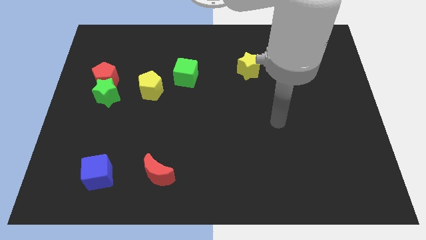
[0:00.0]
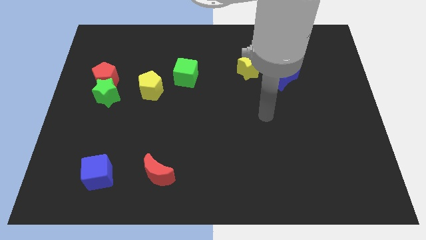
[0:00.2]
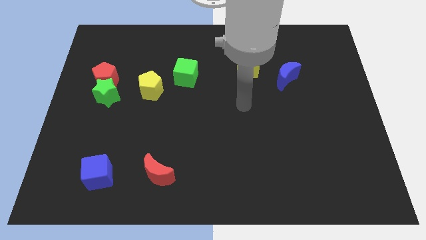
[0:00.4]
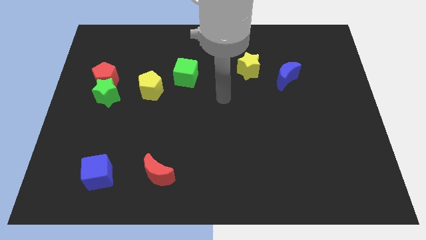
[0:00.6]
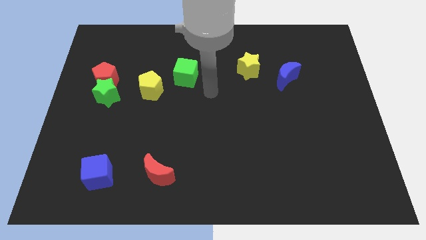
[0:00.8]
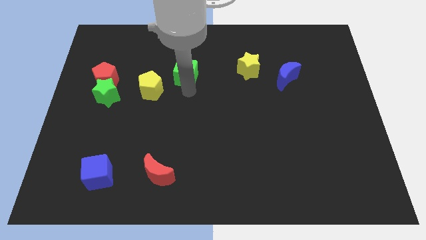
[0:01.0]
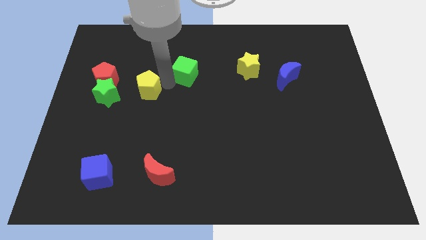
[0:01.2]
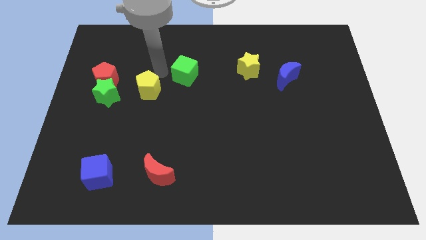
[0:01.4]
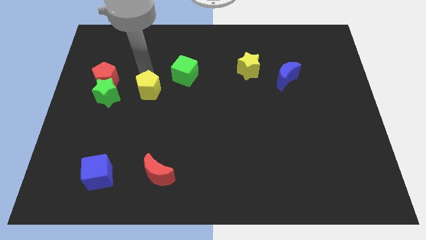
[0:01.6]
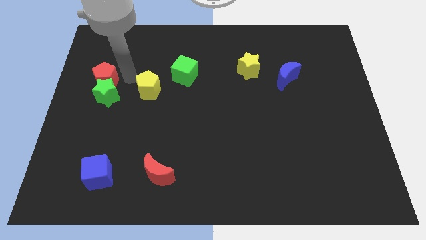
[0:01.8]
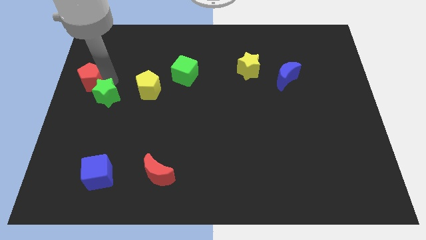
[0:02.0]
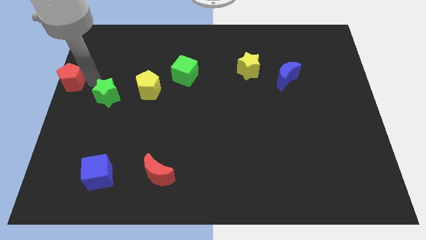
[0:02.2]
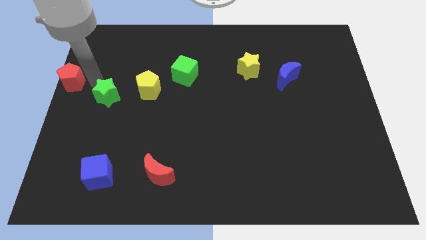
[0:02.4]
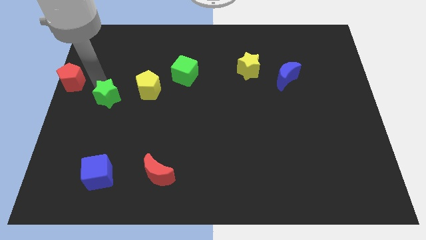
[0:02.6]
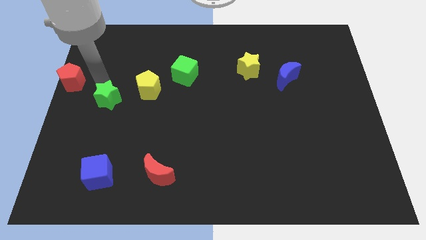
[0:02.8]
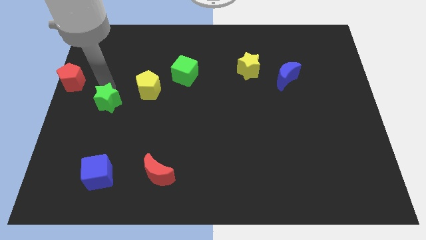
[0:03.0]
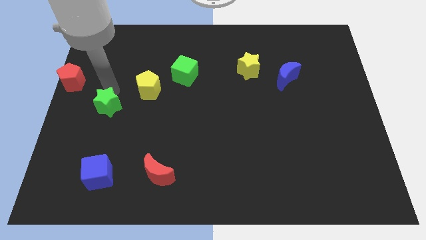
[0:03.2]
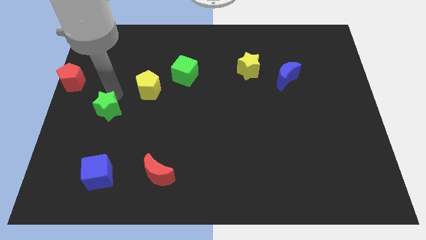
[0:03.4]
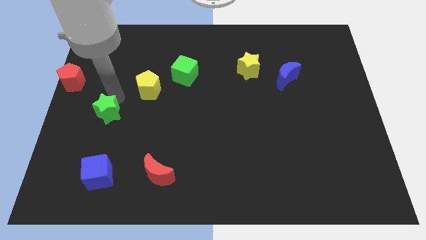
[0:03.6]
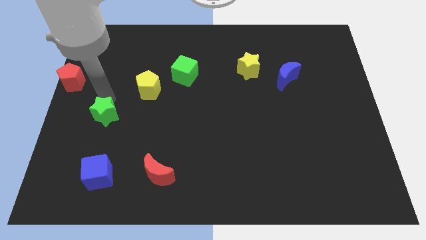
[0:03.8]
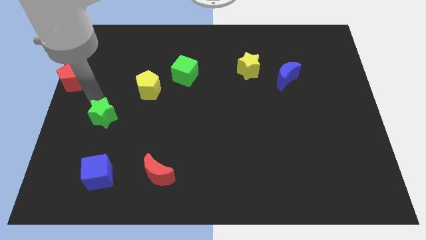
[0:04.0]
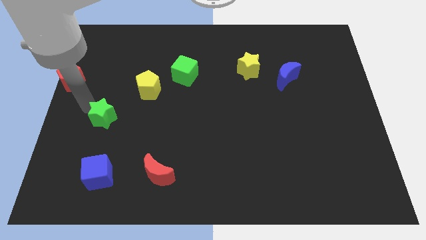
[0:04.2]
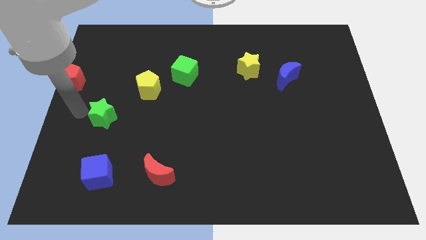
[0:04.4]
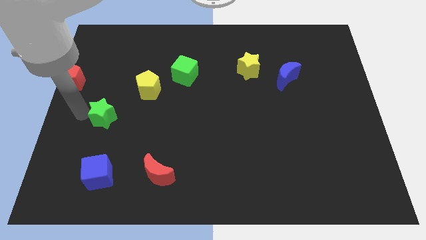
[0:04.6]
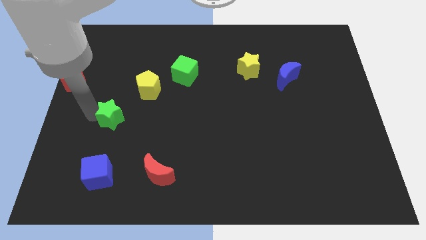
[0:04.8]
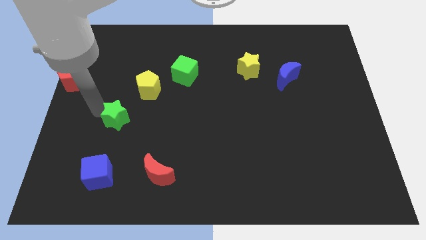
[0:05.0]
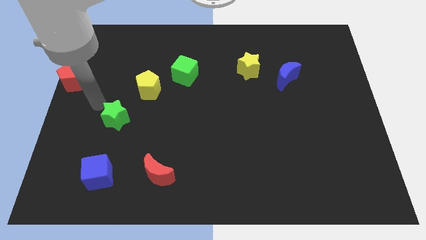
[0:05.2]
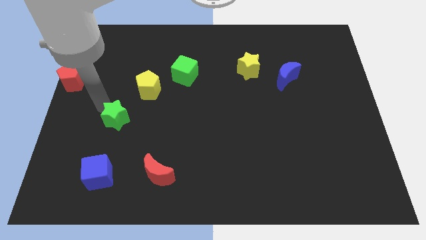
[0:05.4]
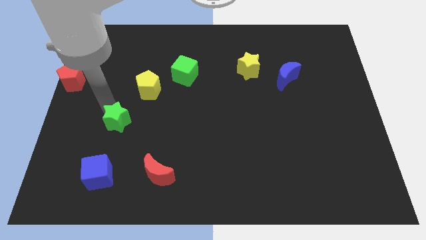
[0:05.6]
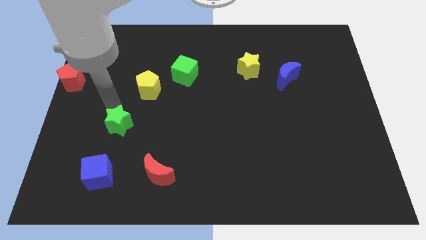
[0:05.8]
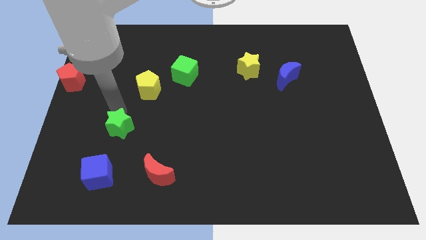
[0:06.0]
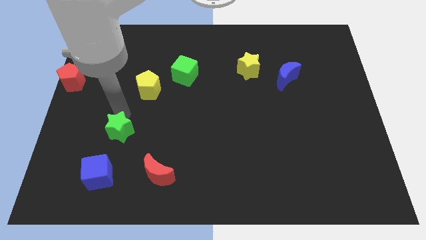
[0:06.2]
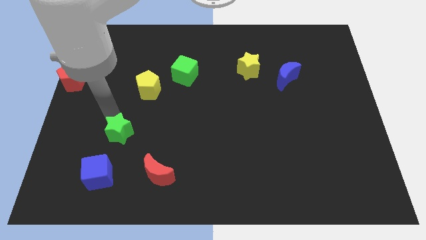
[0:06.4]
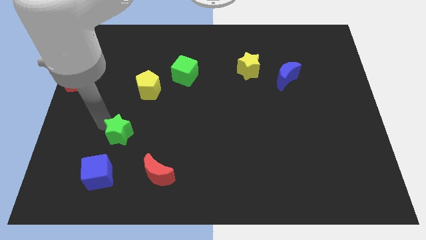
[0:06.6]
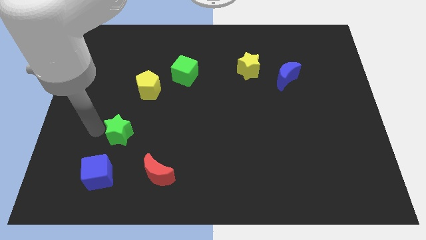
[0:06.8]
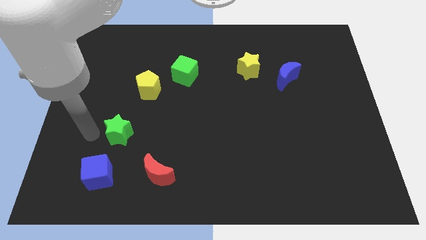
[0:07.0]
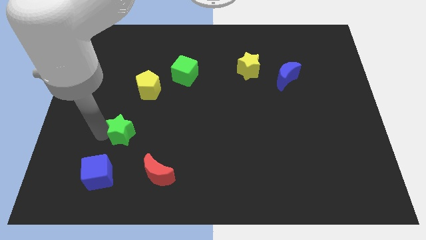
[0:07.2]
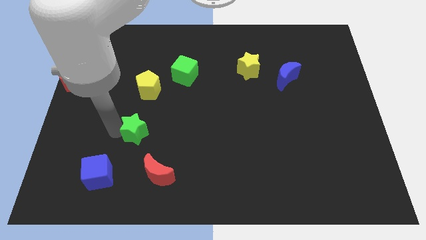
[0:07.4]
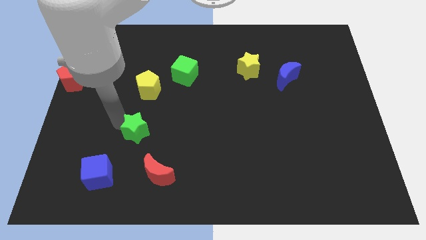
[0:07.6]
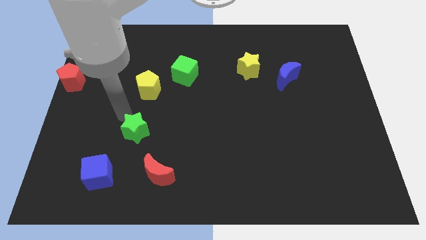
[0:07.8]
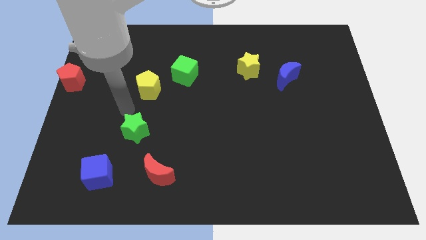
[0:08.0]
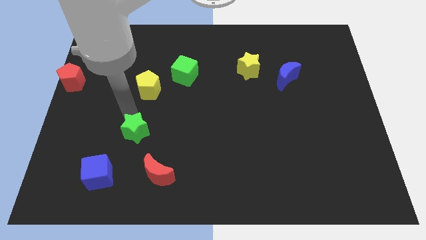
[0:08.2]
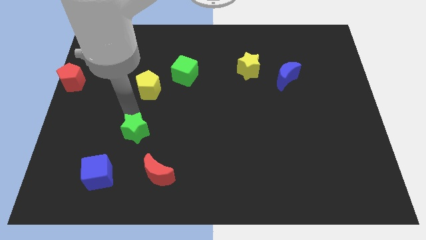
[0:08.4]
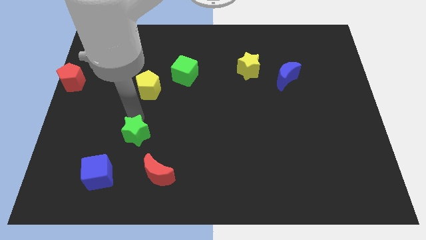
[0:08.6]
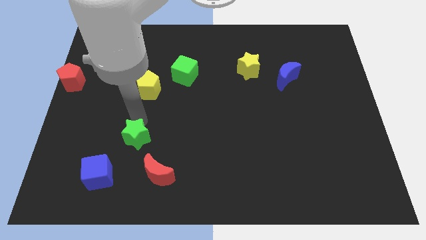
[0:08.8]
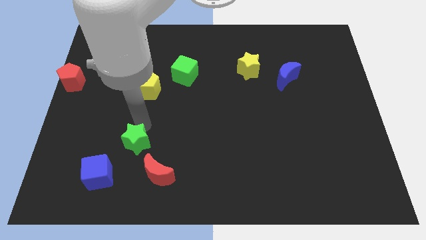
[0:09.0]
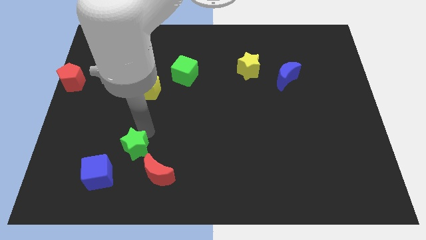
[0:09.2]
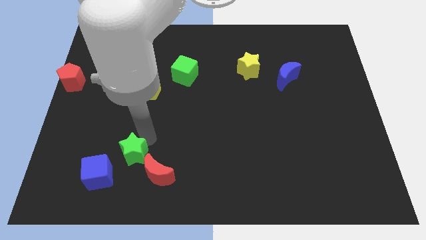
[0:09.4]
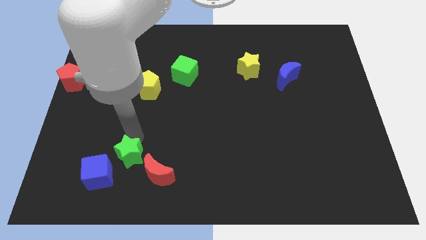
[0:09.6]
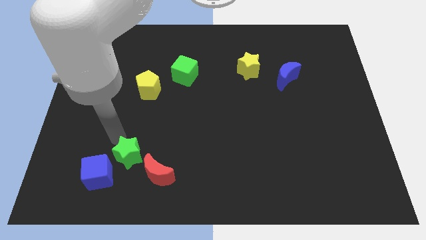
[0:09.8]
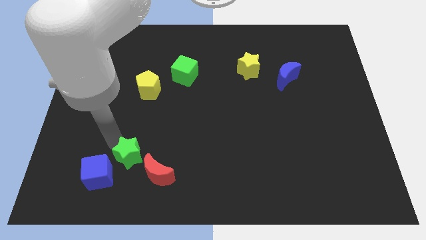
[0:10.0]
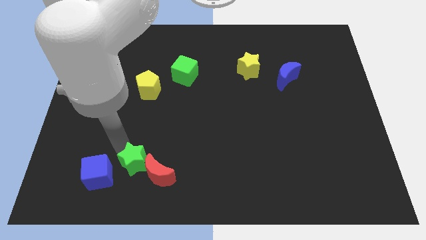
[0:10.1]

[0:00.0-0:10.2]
push the green star towards the red moon

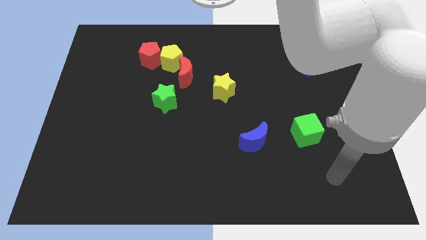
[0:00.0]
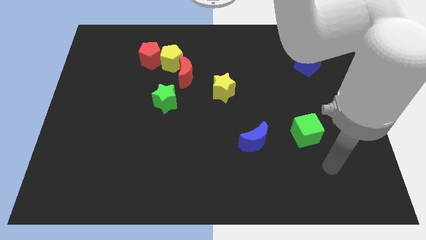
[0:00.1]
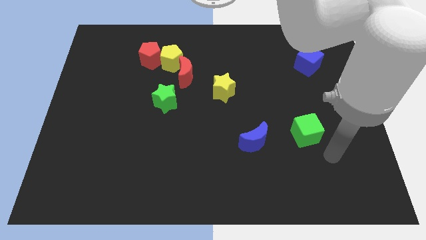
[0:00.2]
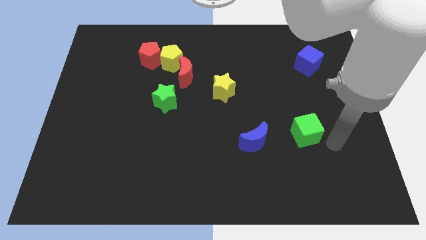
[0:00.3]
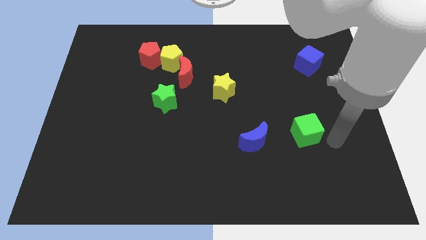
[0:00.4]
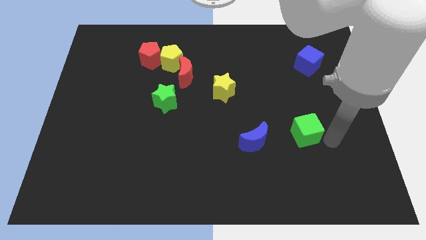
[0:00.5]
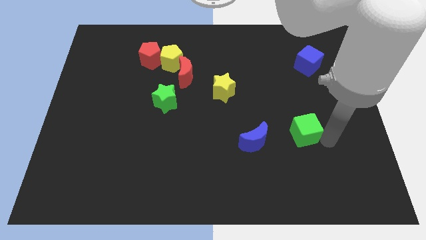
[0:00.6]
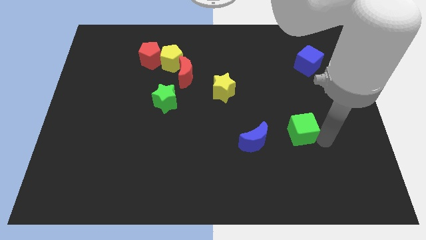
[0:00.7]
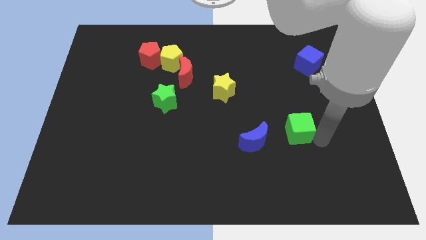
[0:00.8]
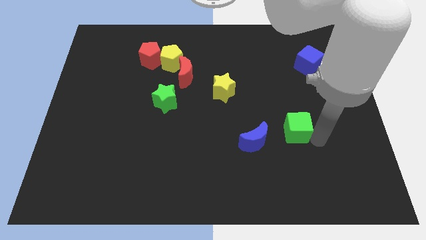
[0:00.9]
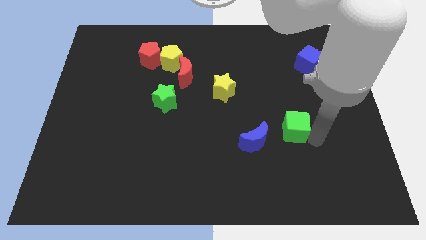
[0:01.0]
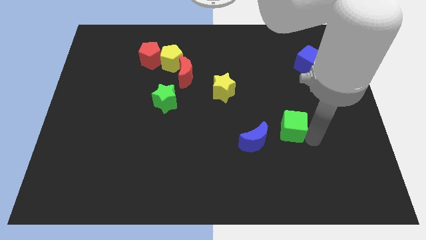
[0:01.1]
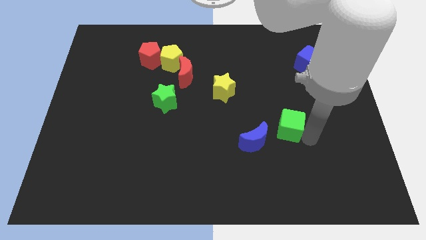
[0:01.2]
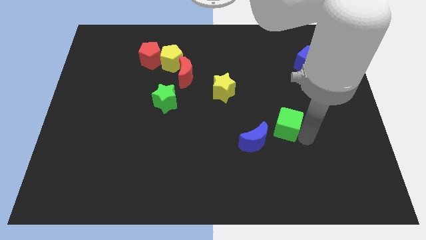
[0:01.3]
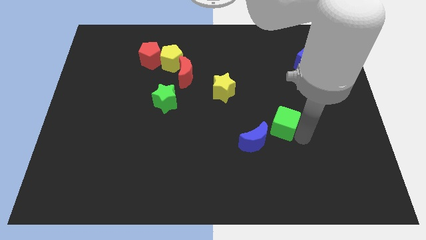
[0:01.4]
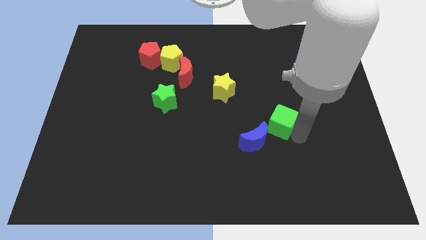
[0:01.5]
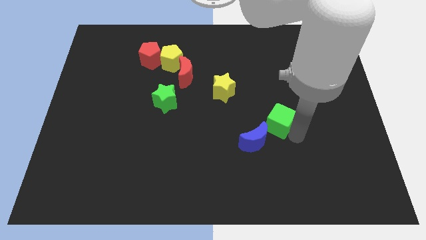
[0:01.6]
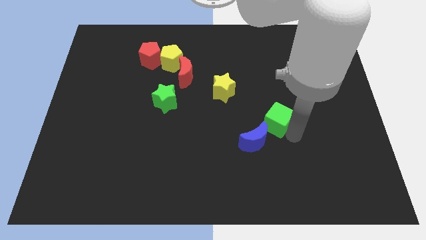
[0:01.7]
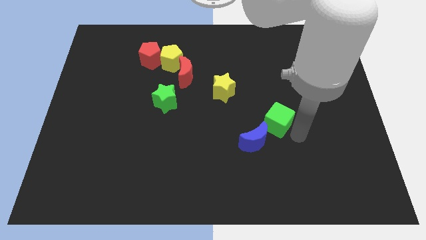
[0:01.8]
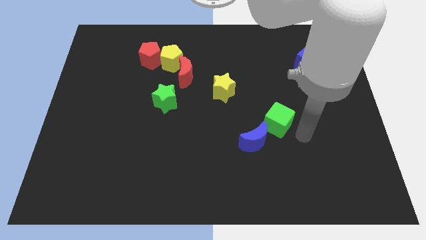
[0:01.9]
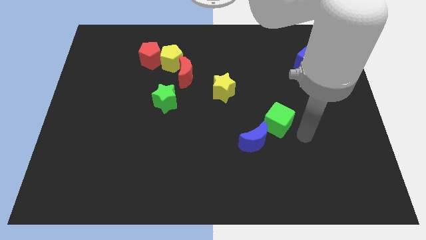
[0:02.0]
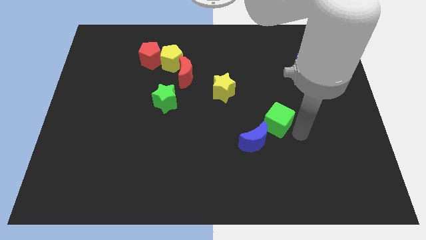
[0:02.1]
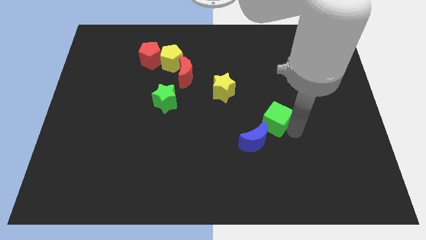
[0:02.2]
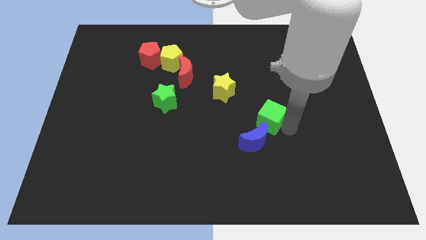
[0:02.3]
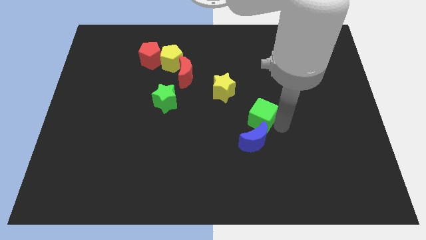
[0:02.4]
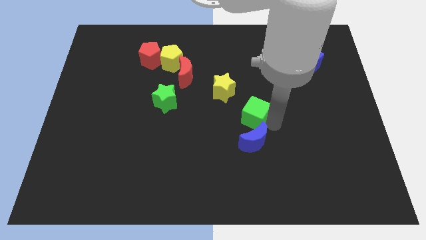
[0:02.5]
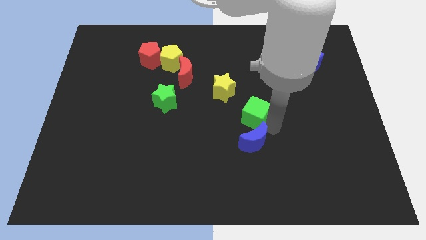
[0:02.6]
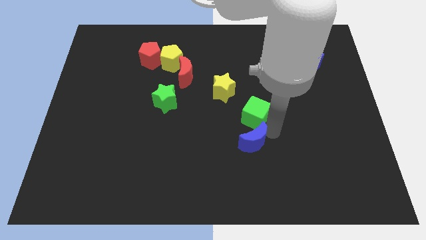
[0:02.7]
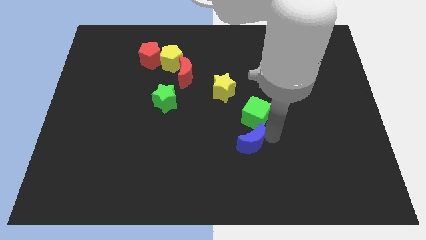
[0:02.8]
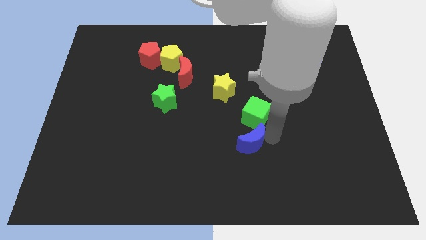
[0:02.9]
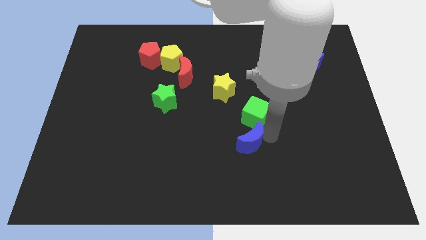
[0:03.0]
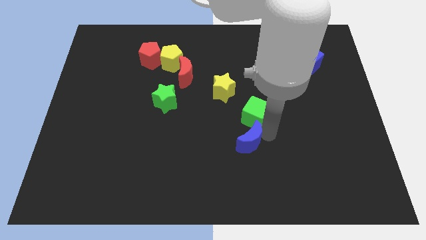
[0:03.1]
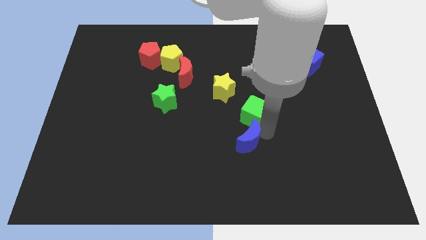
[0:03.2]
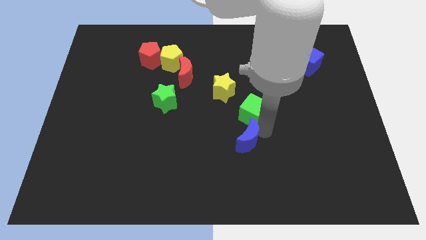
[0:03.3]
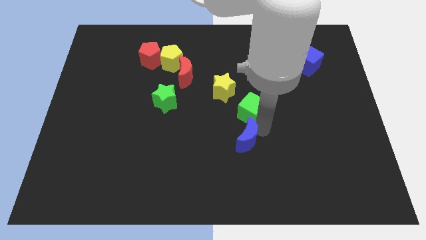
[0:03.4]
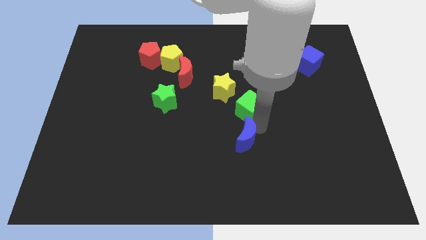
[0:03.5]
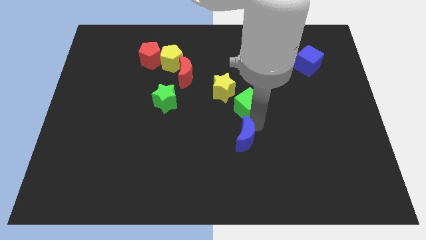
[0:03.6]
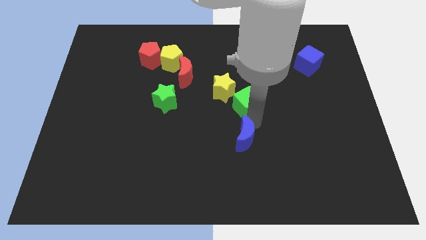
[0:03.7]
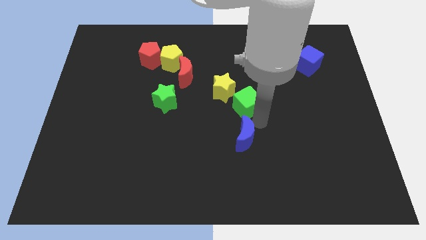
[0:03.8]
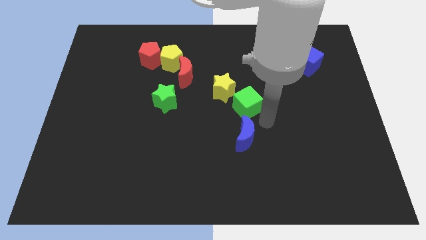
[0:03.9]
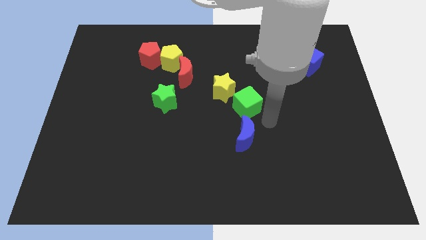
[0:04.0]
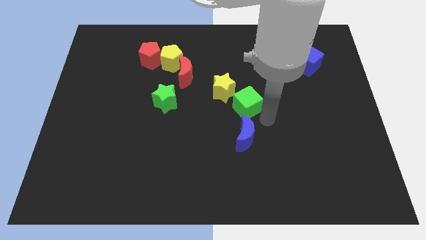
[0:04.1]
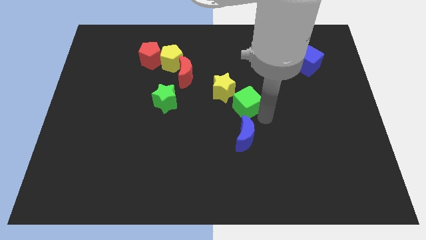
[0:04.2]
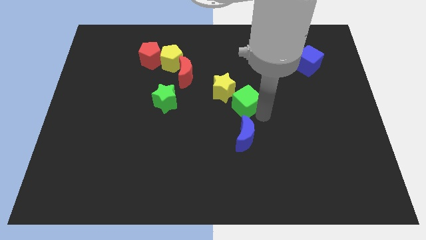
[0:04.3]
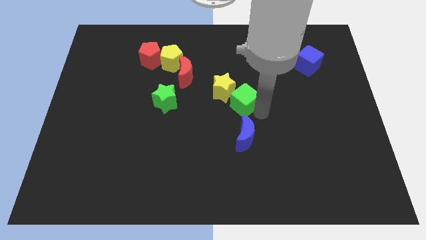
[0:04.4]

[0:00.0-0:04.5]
put the green cube next to the yellow star
